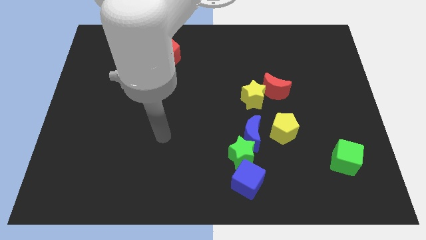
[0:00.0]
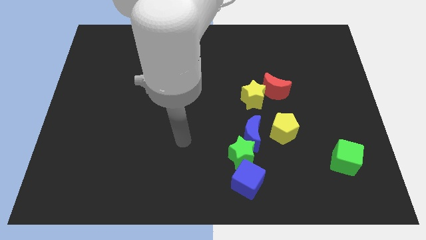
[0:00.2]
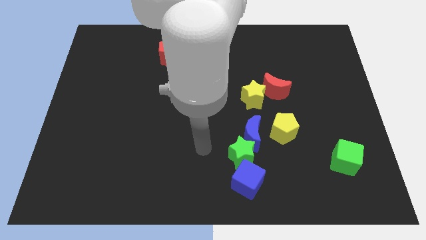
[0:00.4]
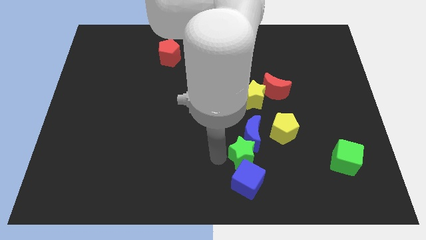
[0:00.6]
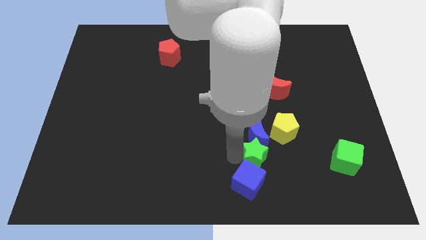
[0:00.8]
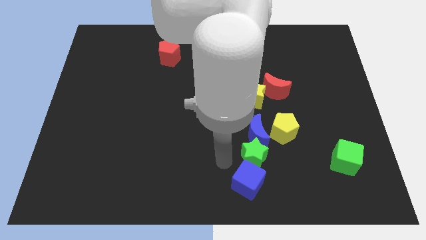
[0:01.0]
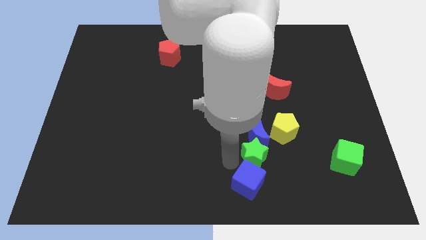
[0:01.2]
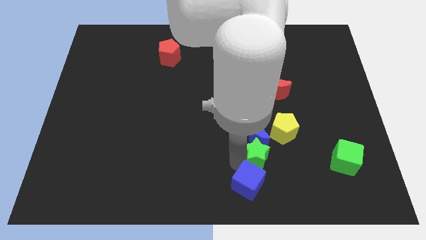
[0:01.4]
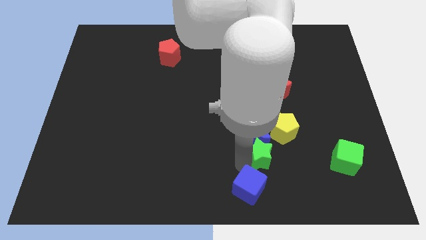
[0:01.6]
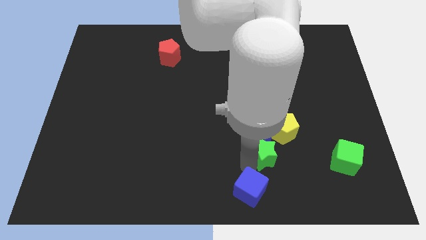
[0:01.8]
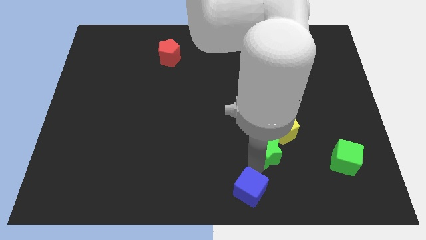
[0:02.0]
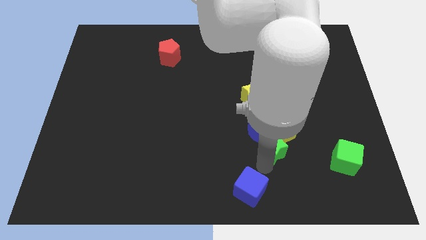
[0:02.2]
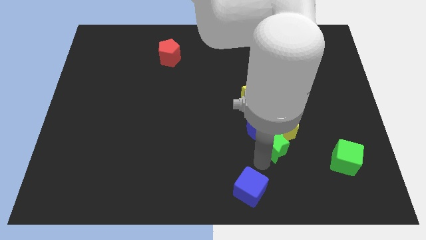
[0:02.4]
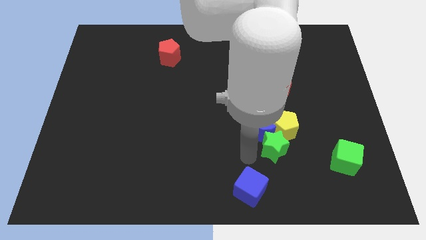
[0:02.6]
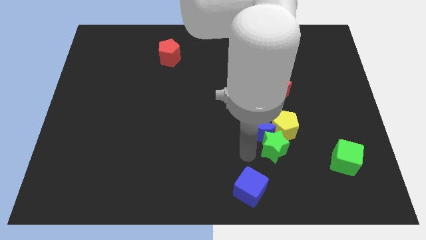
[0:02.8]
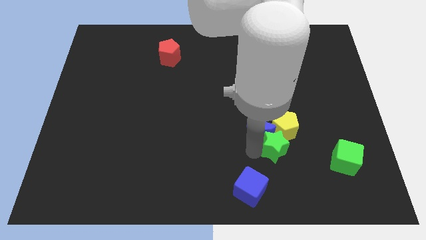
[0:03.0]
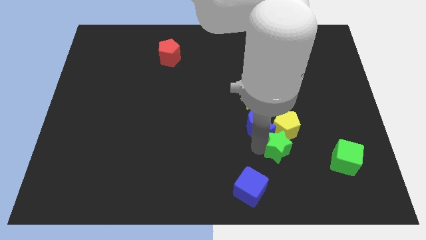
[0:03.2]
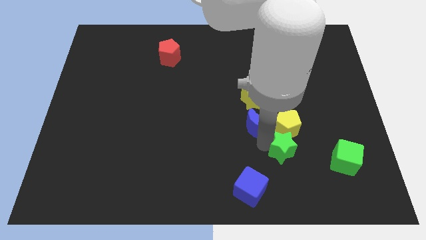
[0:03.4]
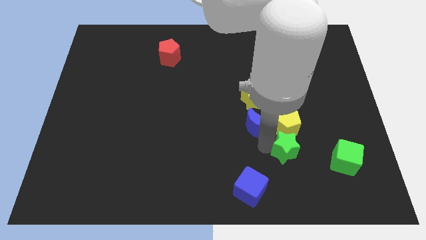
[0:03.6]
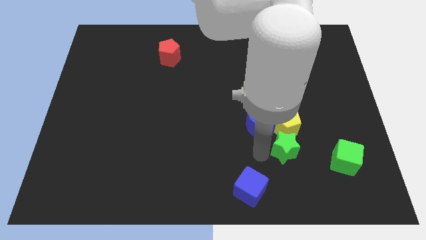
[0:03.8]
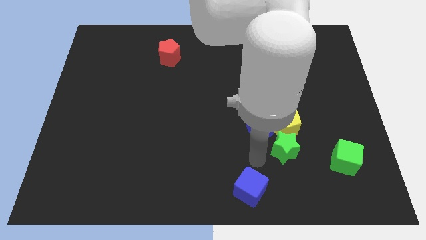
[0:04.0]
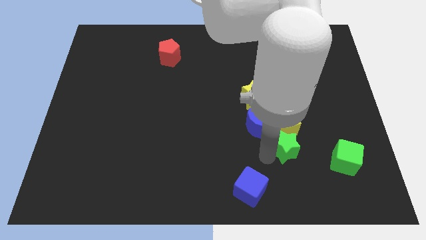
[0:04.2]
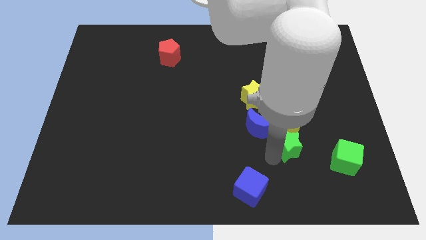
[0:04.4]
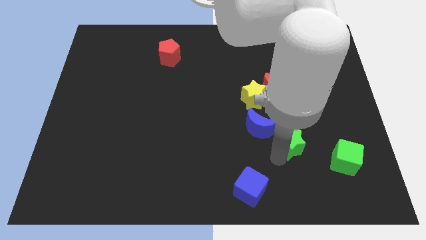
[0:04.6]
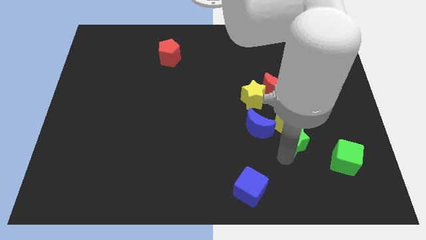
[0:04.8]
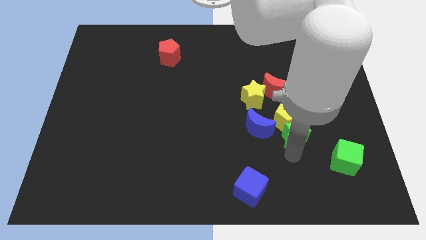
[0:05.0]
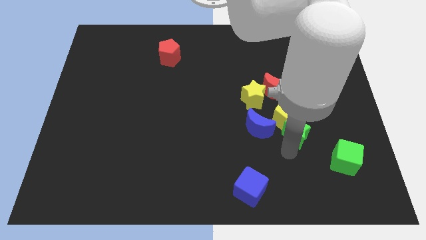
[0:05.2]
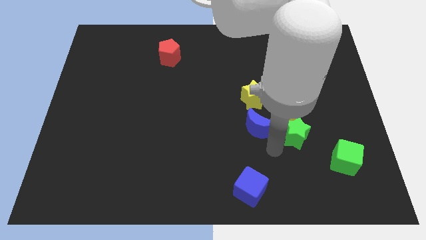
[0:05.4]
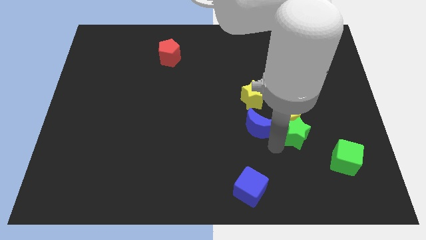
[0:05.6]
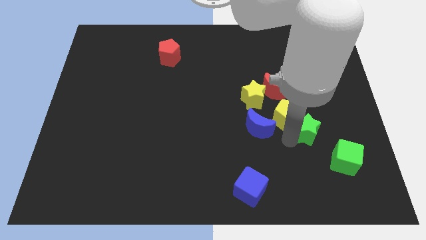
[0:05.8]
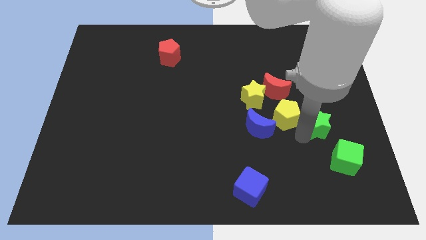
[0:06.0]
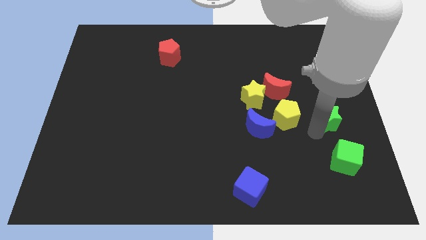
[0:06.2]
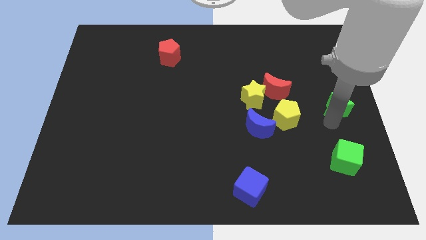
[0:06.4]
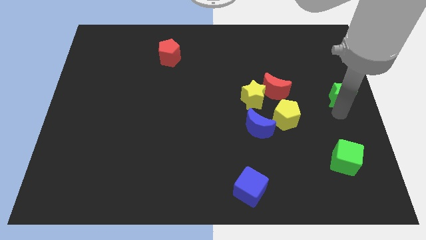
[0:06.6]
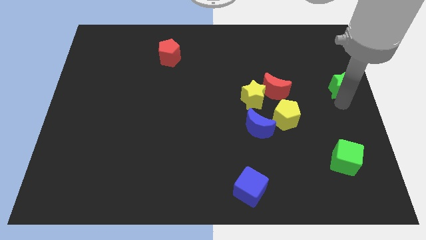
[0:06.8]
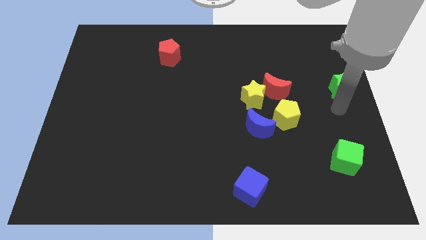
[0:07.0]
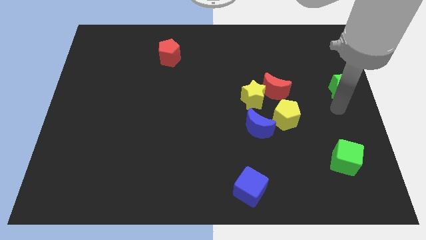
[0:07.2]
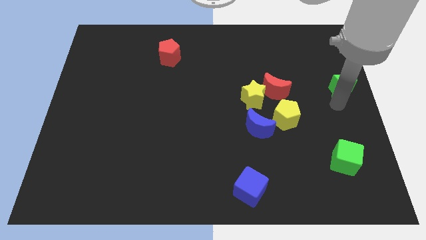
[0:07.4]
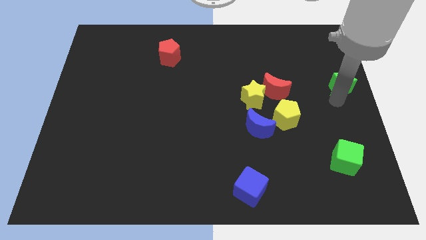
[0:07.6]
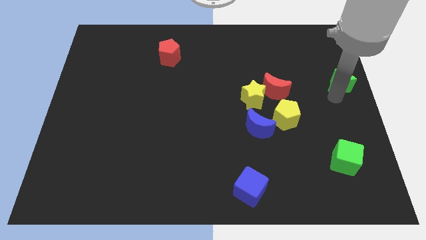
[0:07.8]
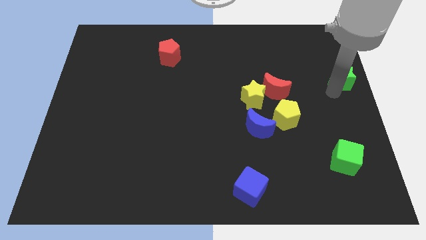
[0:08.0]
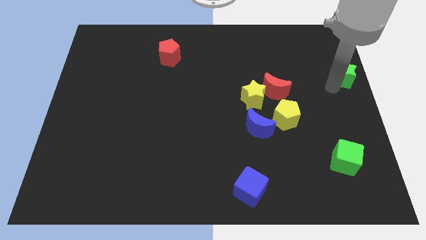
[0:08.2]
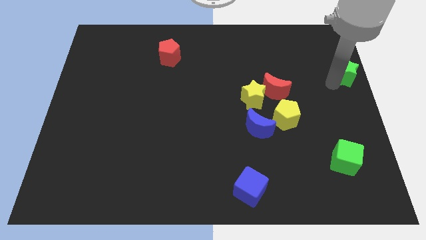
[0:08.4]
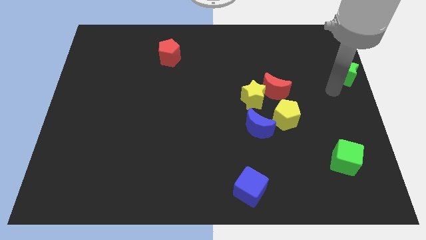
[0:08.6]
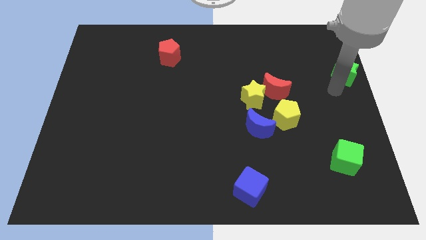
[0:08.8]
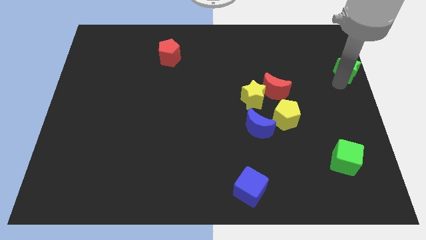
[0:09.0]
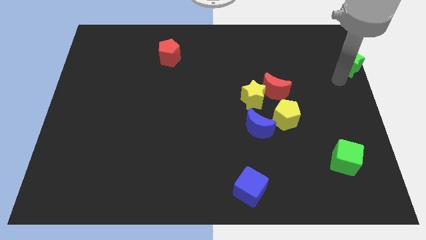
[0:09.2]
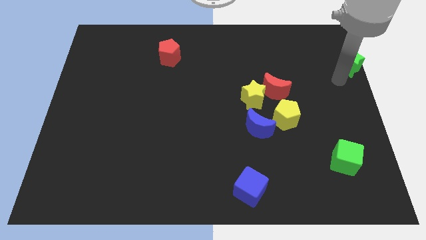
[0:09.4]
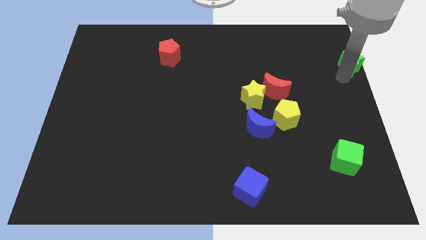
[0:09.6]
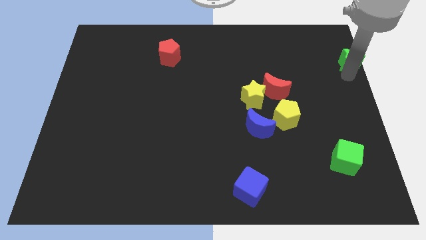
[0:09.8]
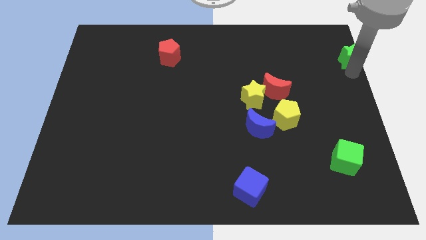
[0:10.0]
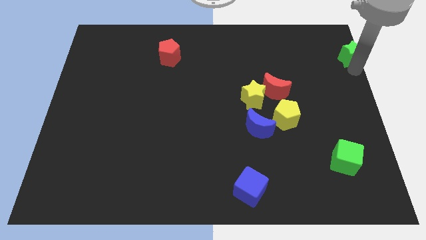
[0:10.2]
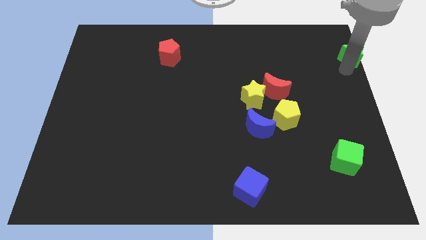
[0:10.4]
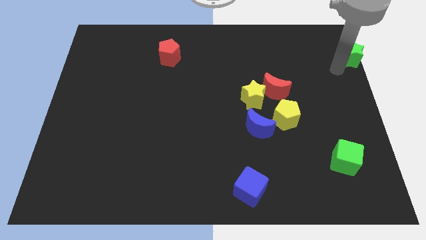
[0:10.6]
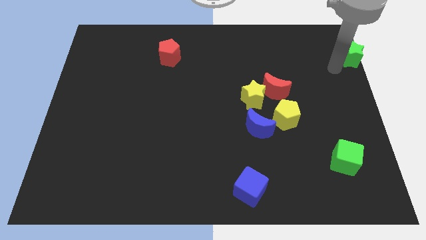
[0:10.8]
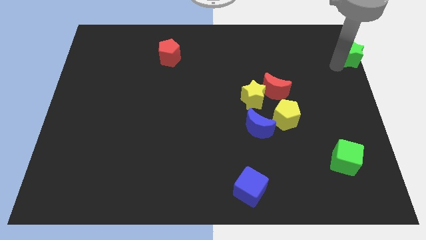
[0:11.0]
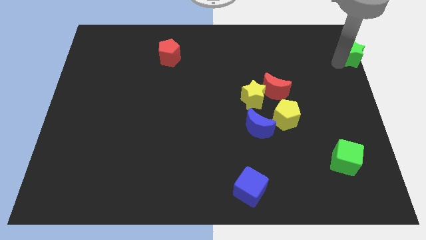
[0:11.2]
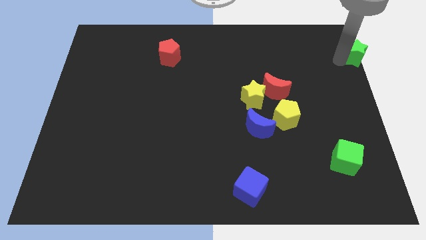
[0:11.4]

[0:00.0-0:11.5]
put the green star to the upper right corner

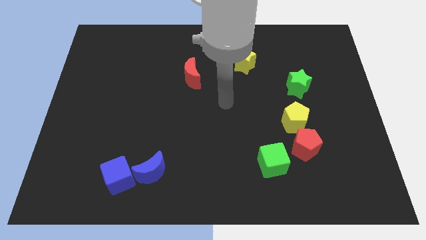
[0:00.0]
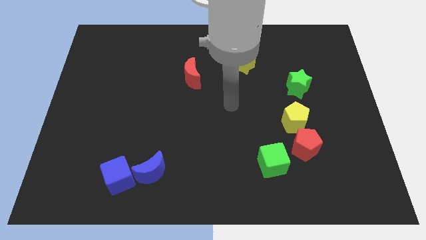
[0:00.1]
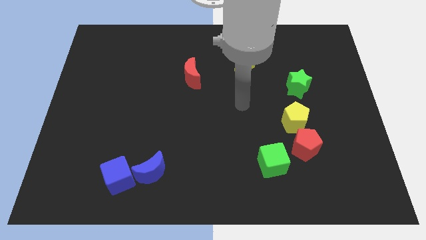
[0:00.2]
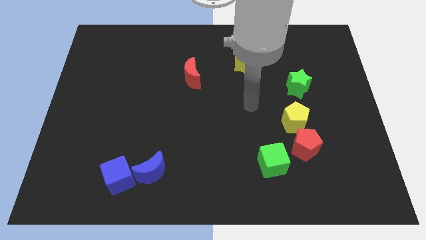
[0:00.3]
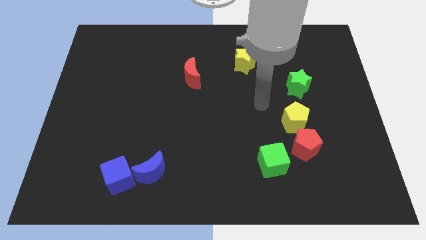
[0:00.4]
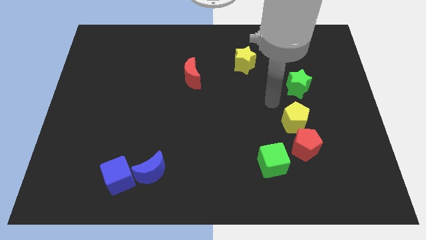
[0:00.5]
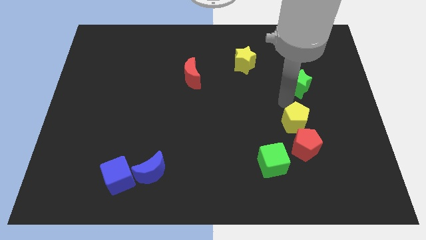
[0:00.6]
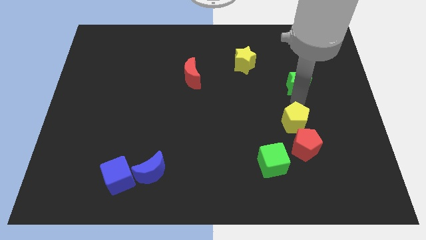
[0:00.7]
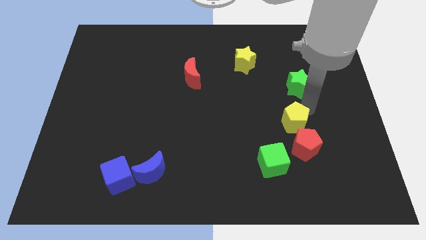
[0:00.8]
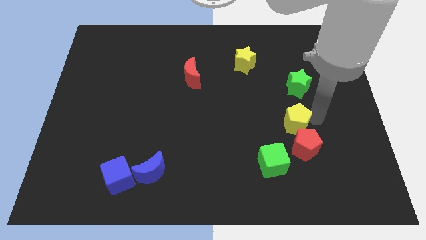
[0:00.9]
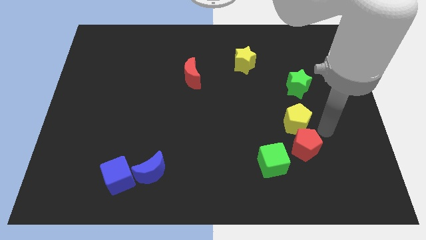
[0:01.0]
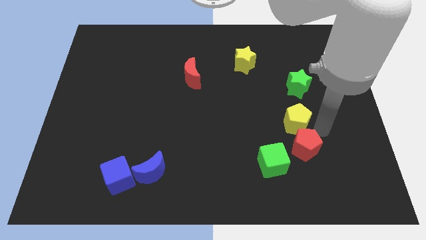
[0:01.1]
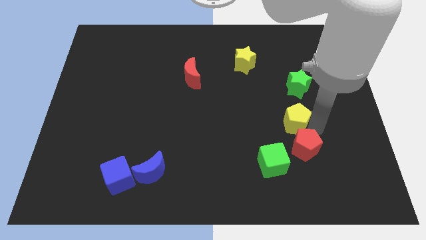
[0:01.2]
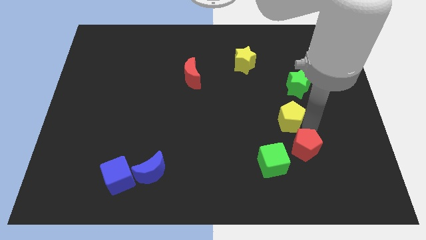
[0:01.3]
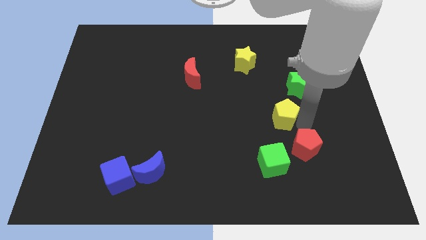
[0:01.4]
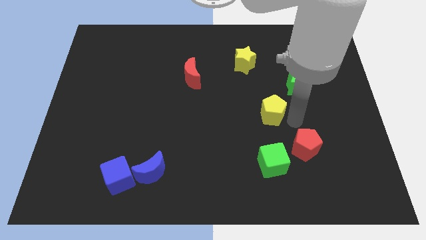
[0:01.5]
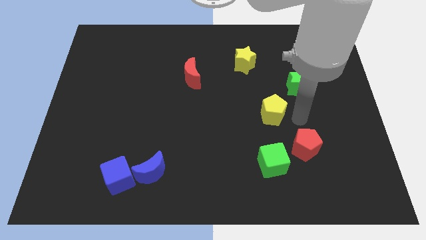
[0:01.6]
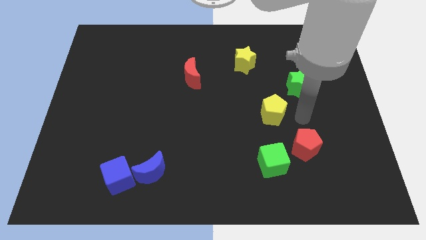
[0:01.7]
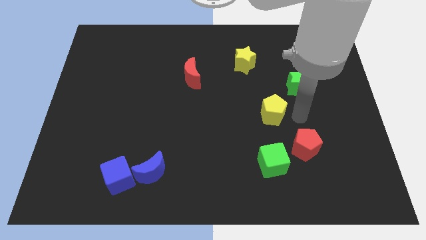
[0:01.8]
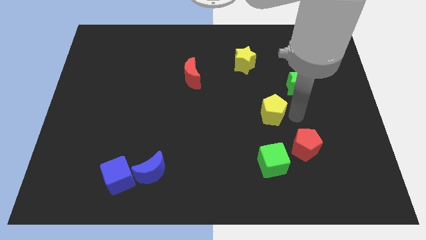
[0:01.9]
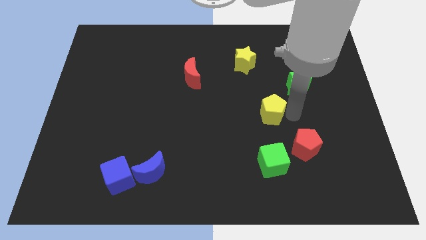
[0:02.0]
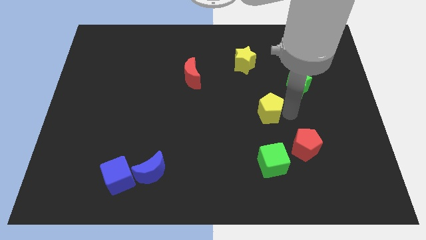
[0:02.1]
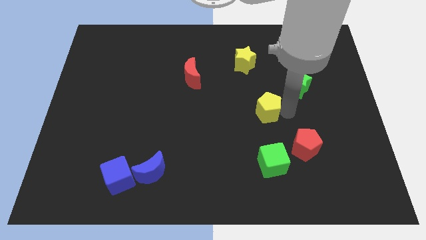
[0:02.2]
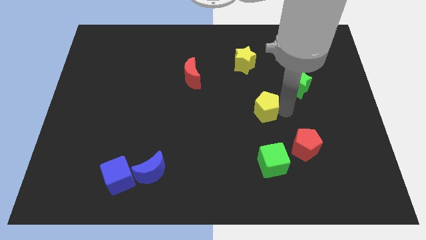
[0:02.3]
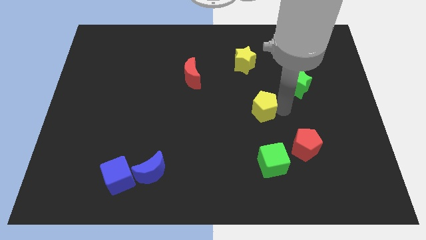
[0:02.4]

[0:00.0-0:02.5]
push the yellow pentagon to the middle of the board
